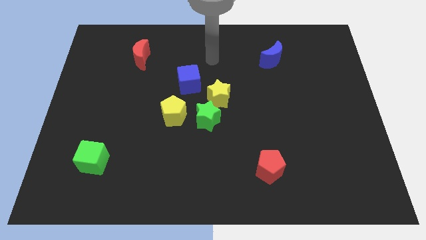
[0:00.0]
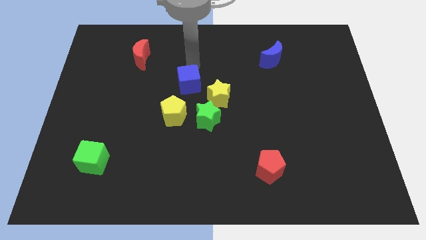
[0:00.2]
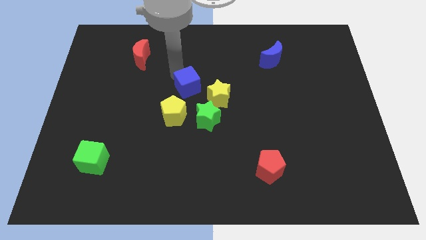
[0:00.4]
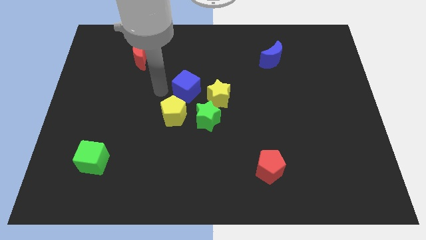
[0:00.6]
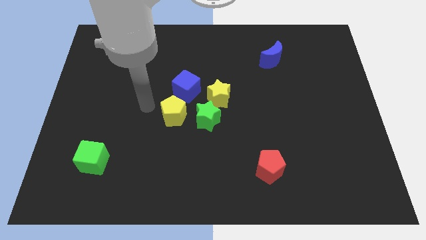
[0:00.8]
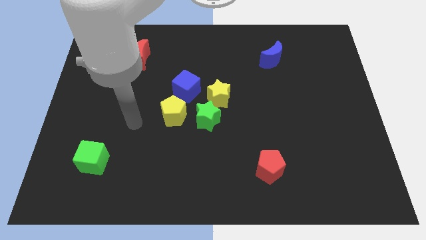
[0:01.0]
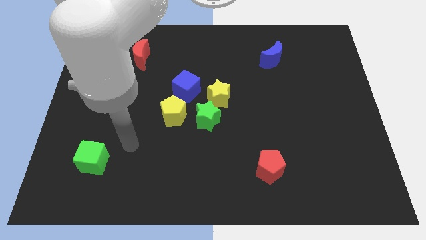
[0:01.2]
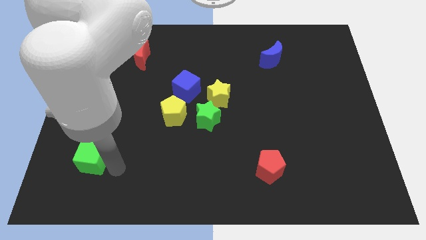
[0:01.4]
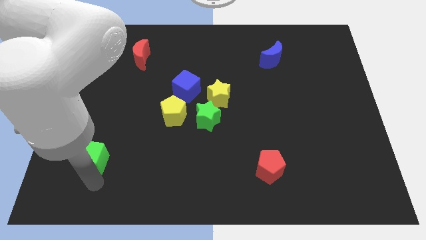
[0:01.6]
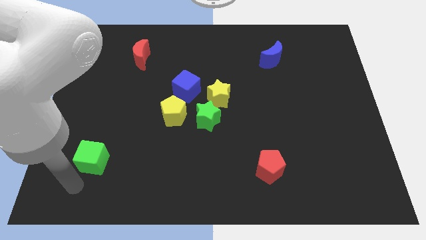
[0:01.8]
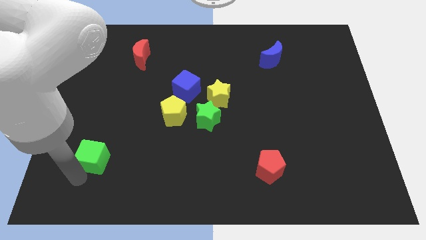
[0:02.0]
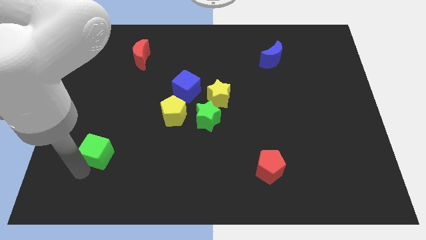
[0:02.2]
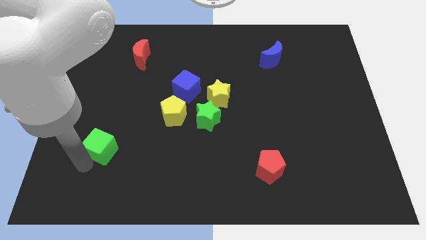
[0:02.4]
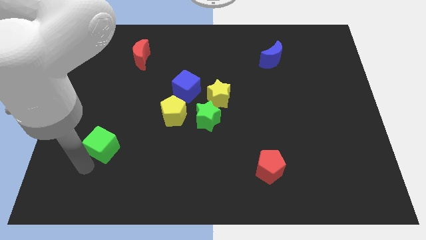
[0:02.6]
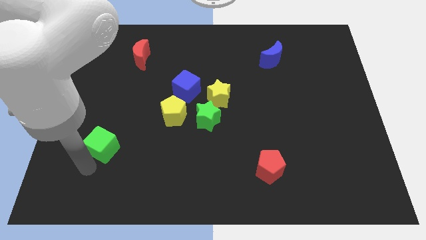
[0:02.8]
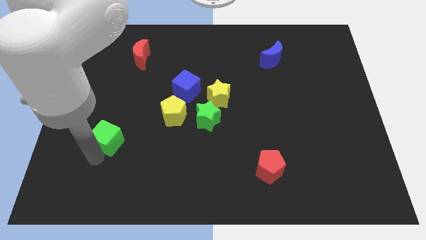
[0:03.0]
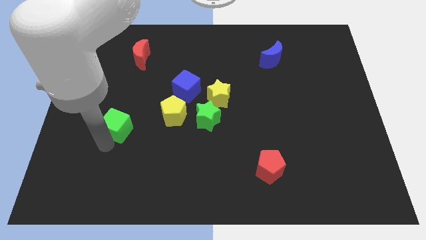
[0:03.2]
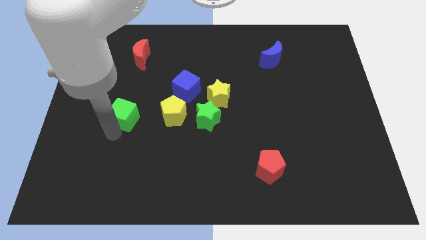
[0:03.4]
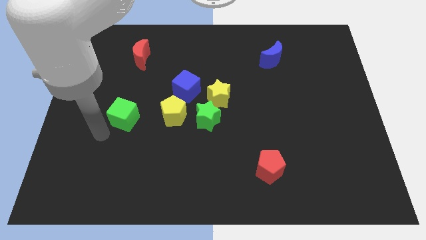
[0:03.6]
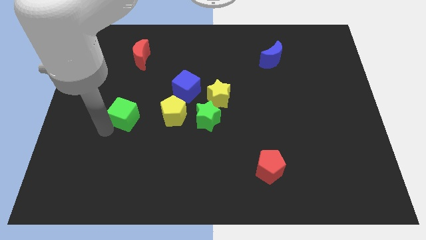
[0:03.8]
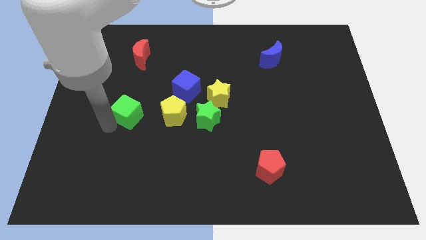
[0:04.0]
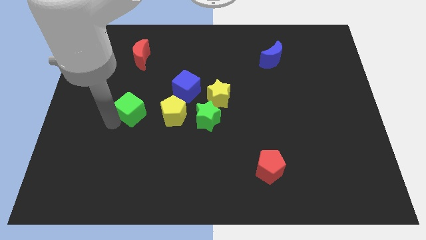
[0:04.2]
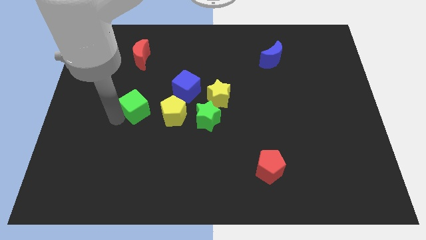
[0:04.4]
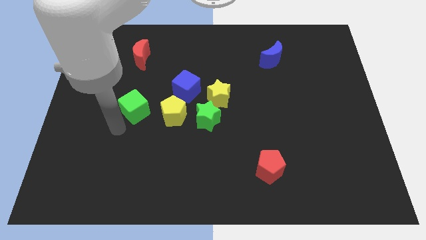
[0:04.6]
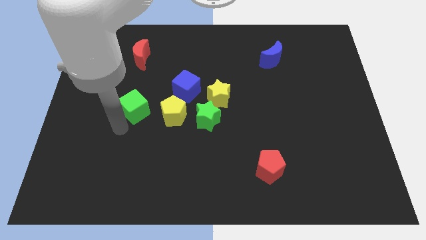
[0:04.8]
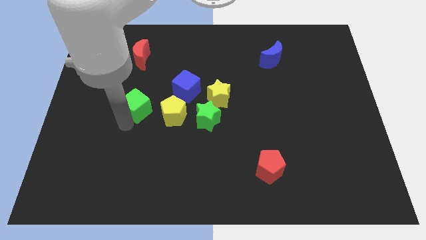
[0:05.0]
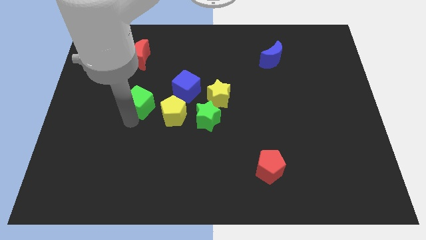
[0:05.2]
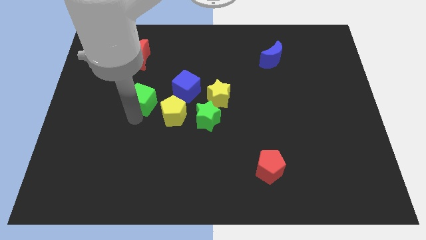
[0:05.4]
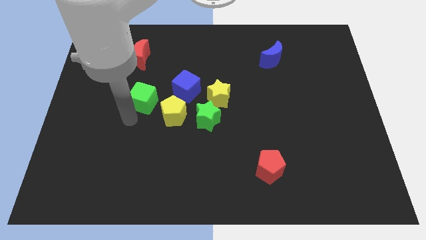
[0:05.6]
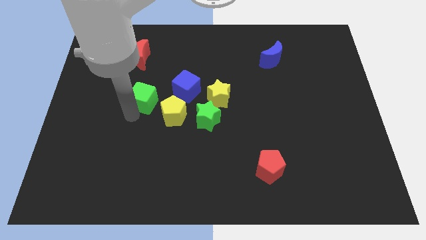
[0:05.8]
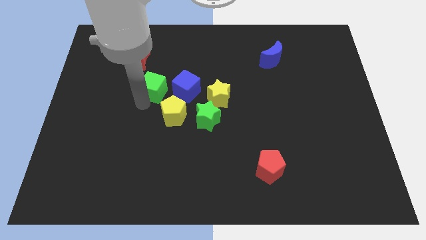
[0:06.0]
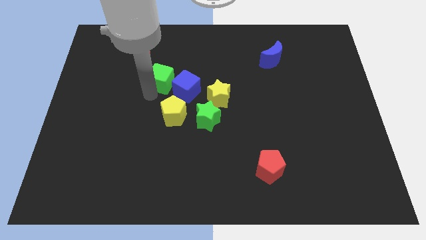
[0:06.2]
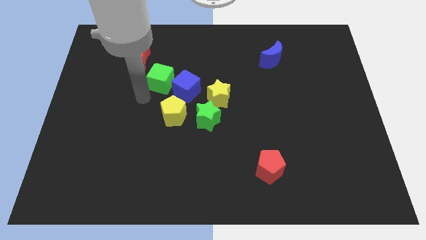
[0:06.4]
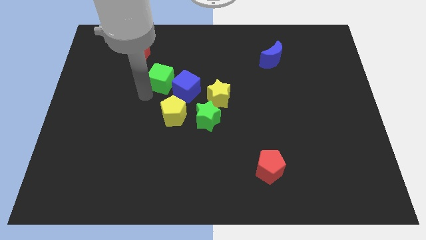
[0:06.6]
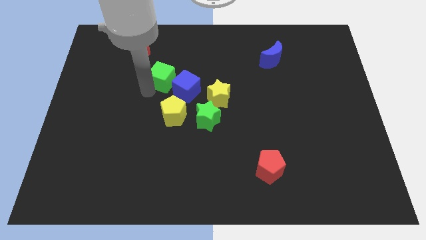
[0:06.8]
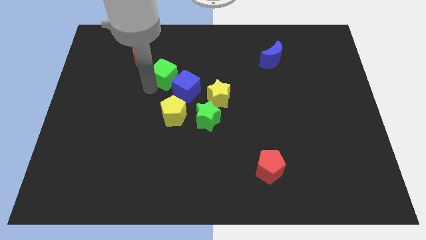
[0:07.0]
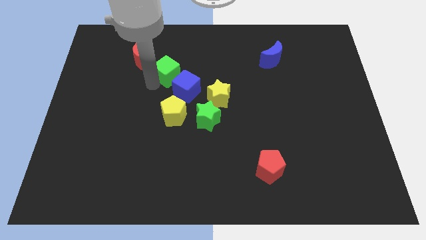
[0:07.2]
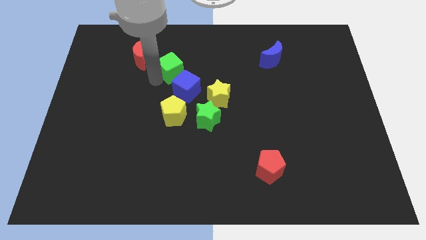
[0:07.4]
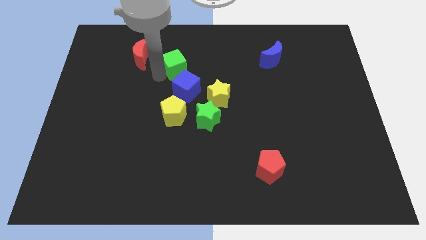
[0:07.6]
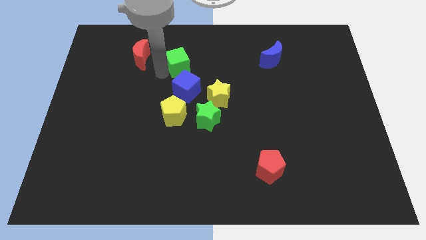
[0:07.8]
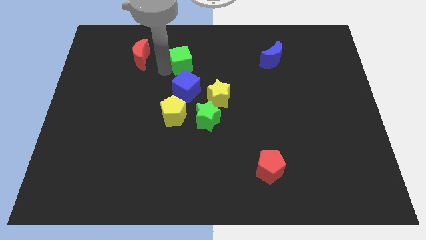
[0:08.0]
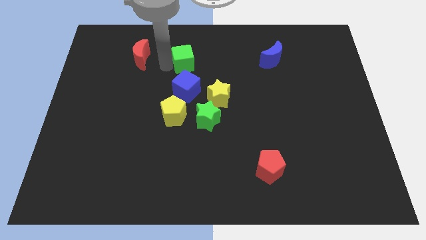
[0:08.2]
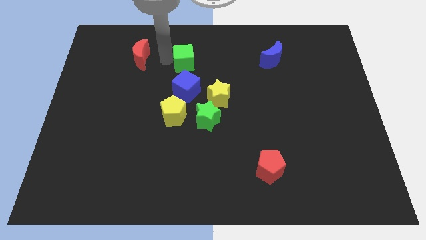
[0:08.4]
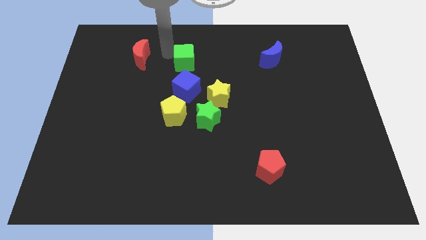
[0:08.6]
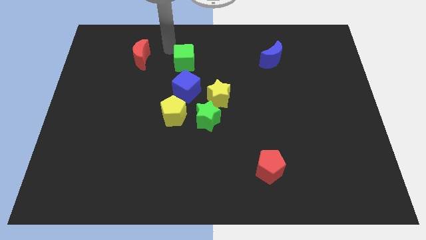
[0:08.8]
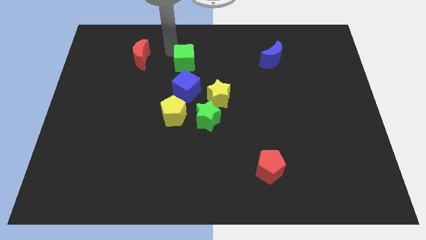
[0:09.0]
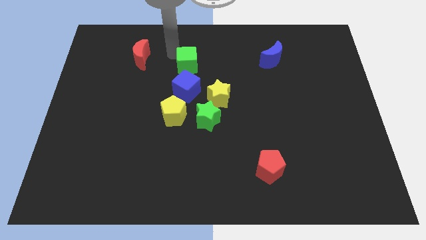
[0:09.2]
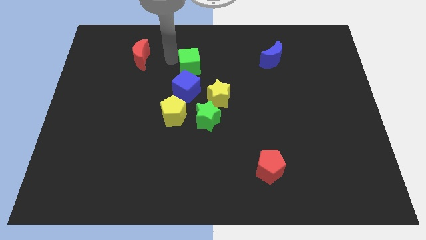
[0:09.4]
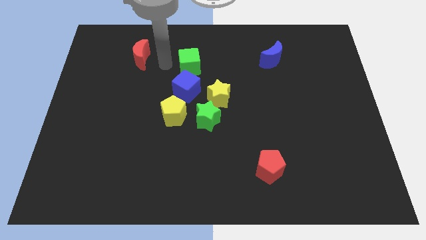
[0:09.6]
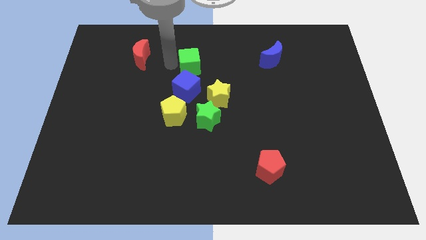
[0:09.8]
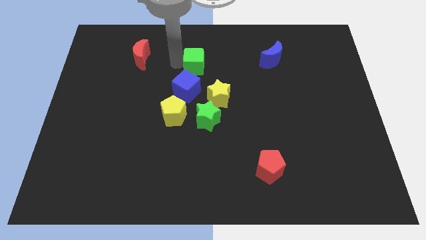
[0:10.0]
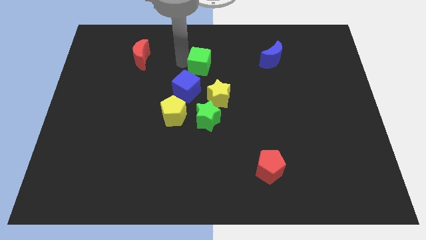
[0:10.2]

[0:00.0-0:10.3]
move the green cube above the yellow star

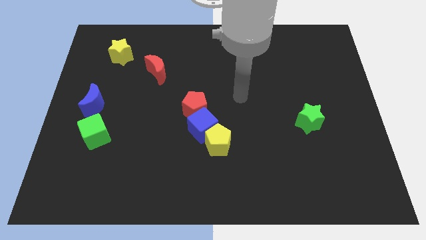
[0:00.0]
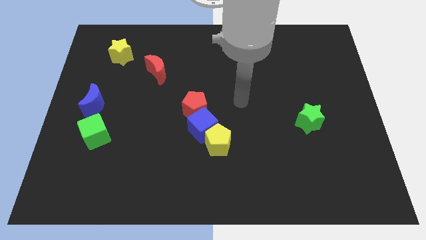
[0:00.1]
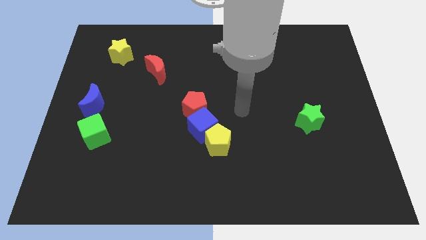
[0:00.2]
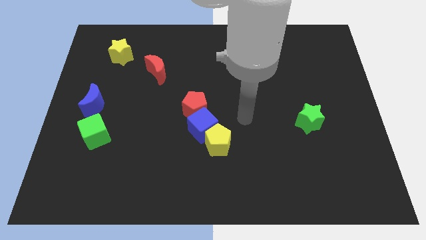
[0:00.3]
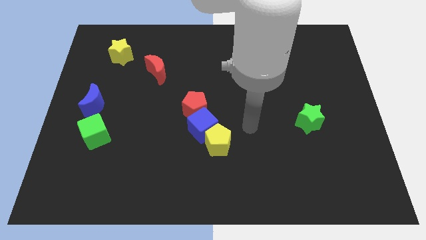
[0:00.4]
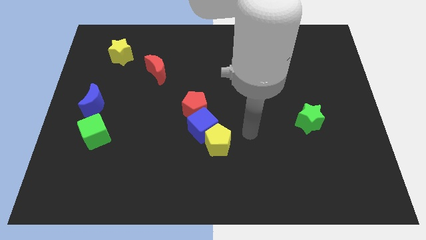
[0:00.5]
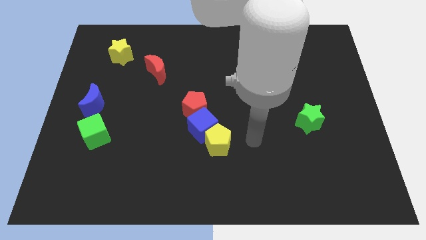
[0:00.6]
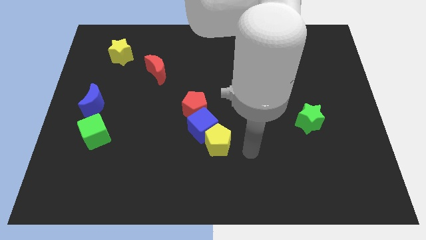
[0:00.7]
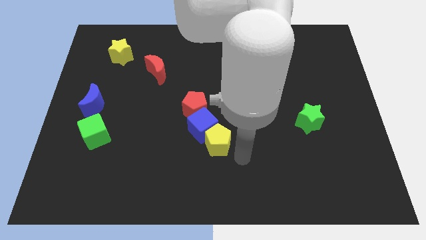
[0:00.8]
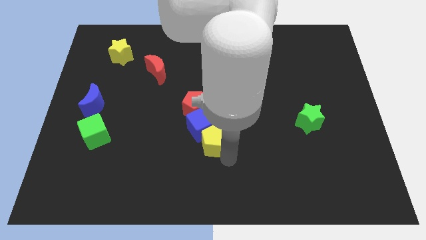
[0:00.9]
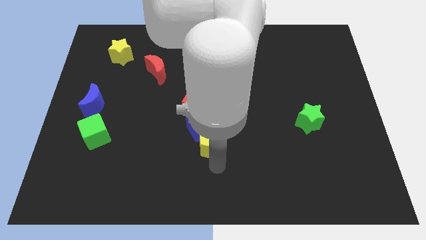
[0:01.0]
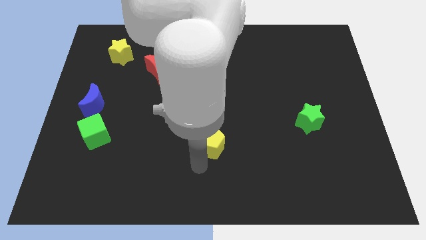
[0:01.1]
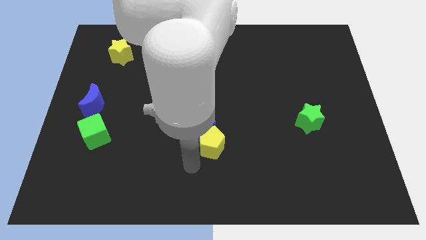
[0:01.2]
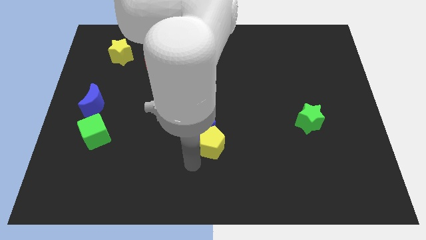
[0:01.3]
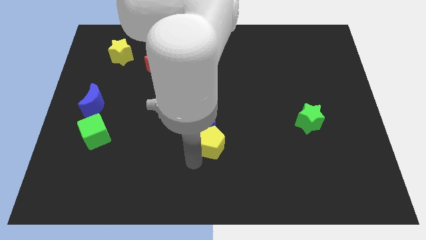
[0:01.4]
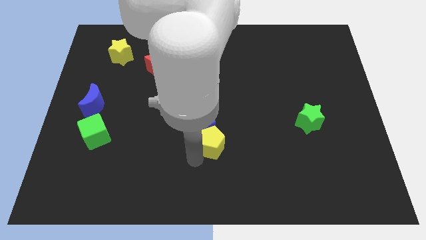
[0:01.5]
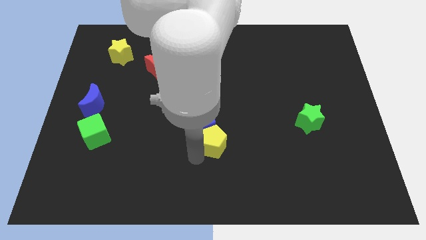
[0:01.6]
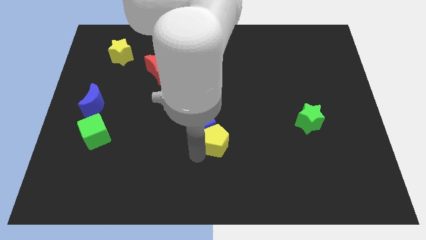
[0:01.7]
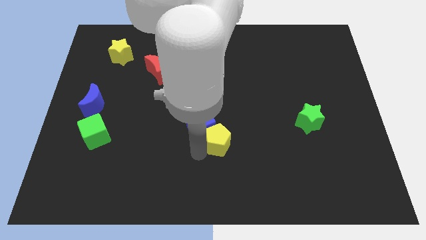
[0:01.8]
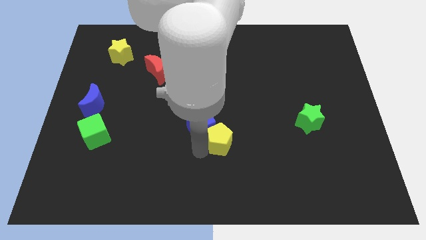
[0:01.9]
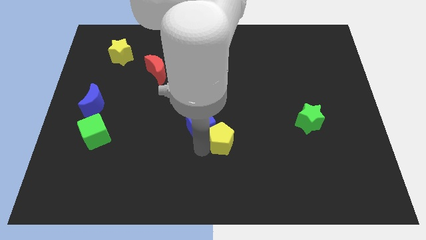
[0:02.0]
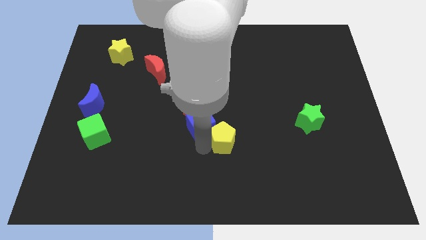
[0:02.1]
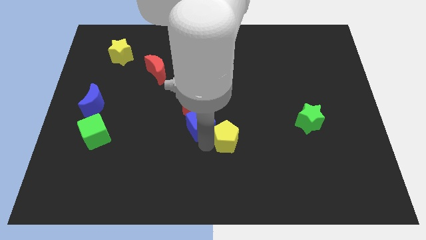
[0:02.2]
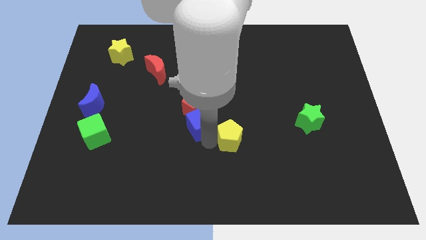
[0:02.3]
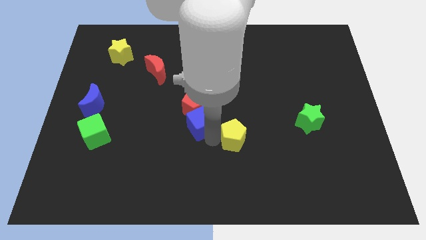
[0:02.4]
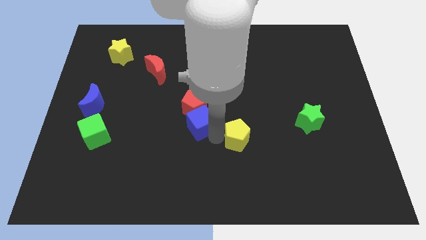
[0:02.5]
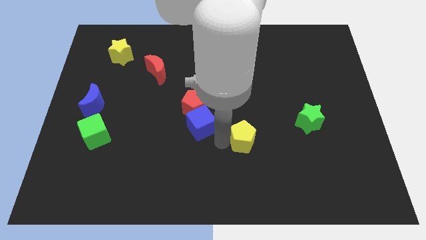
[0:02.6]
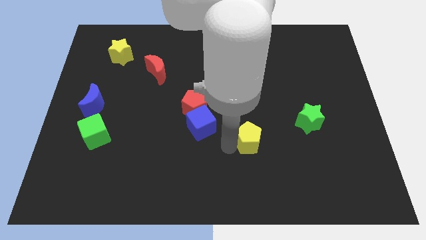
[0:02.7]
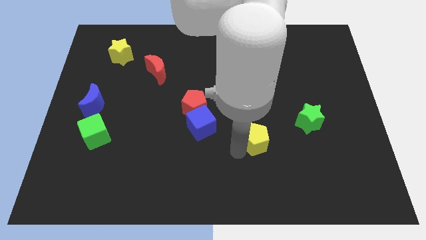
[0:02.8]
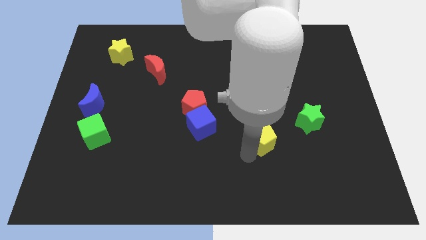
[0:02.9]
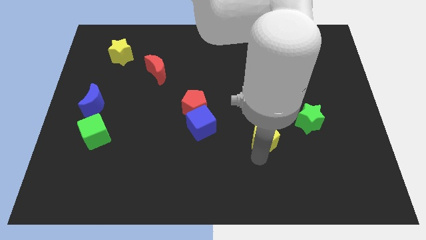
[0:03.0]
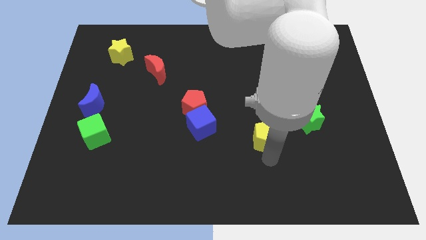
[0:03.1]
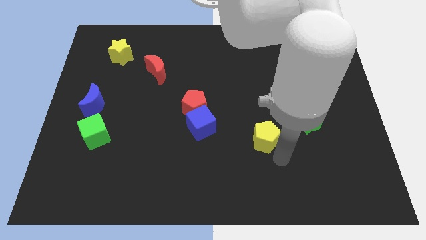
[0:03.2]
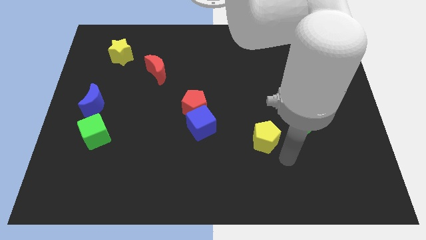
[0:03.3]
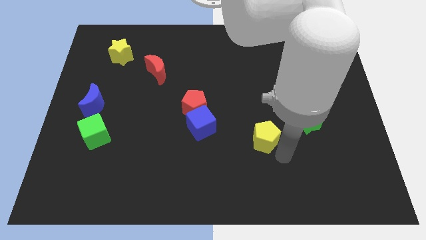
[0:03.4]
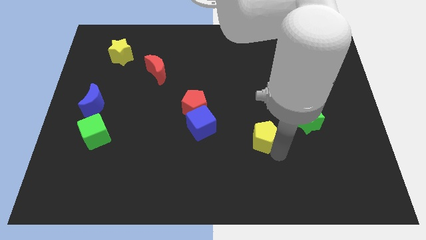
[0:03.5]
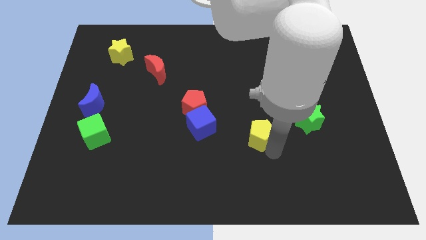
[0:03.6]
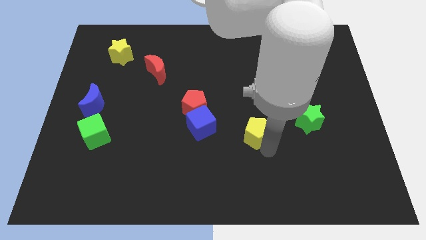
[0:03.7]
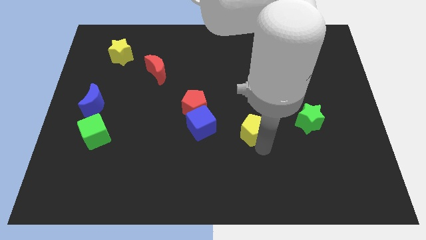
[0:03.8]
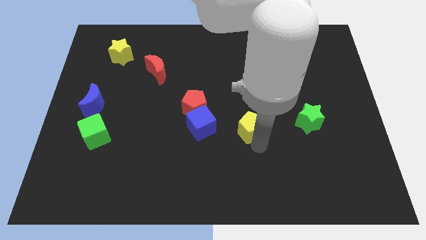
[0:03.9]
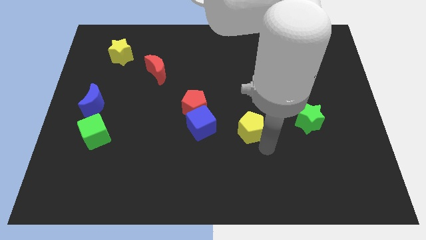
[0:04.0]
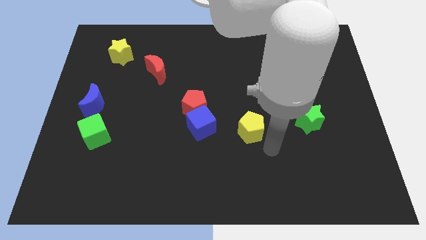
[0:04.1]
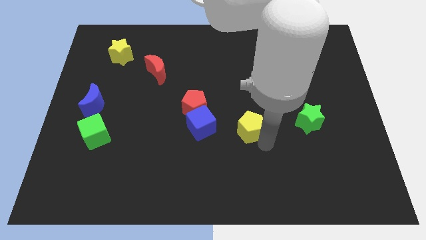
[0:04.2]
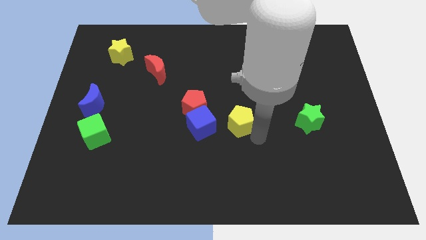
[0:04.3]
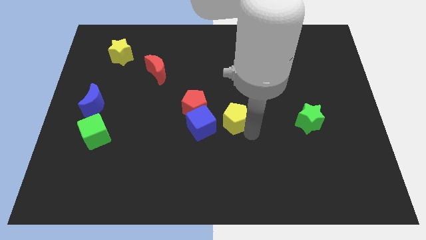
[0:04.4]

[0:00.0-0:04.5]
push the yellow pentagon to the top right of the blue cube
